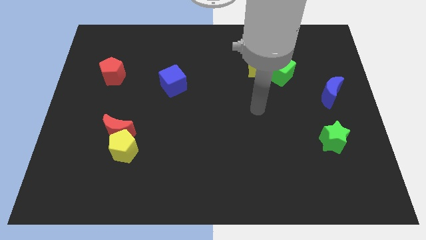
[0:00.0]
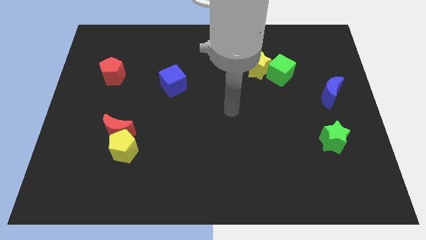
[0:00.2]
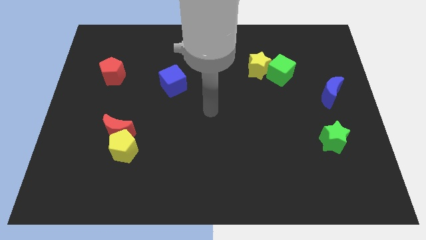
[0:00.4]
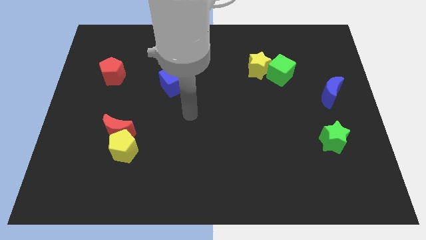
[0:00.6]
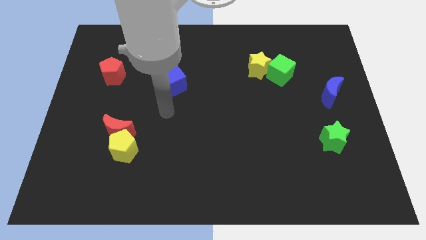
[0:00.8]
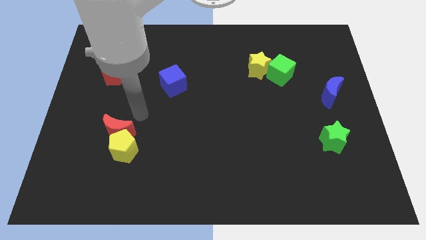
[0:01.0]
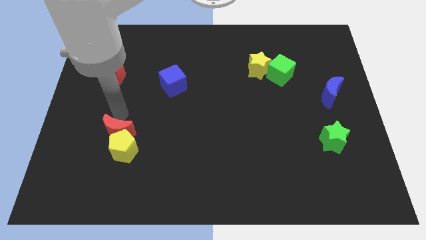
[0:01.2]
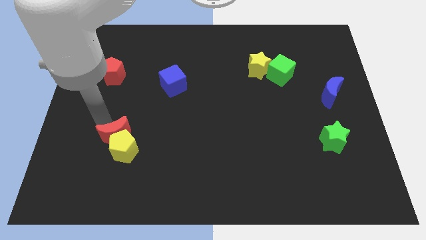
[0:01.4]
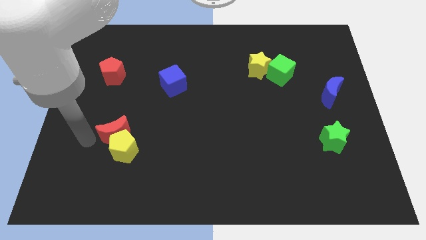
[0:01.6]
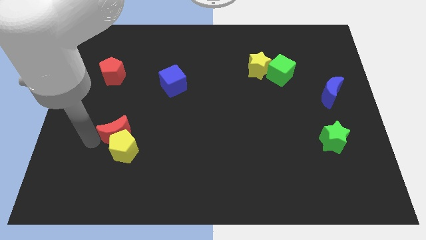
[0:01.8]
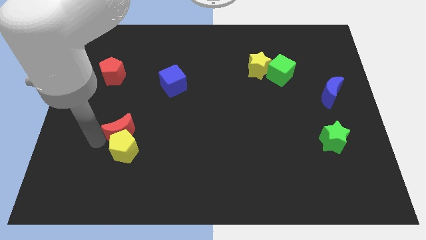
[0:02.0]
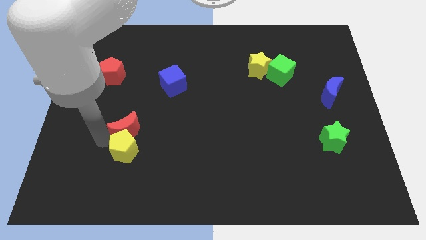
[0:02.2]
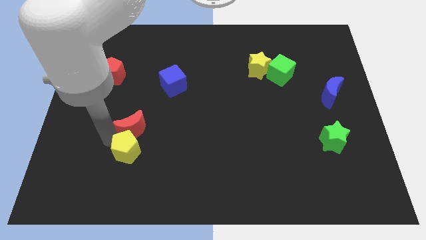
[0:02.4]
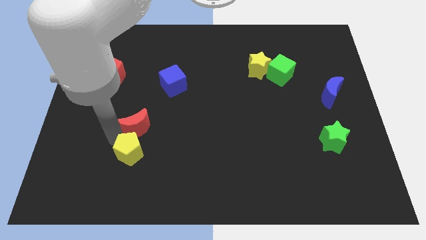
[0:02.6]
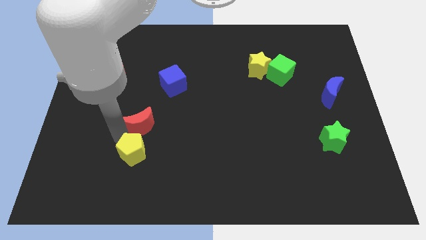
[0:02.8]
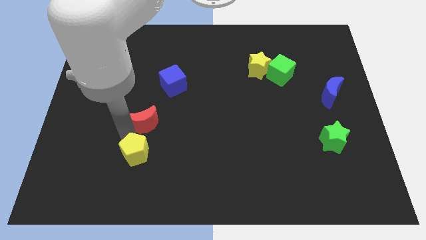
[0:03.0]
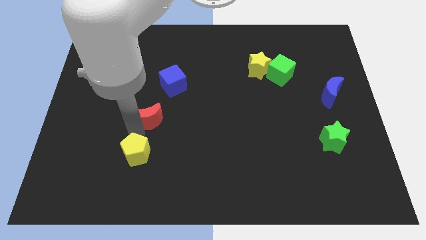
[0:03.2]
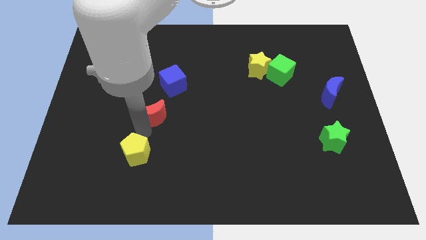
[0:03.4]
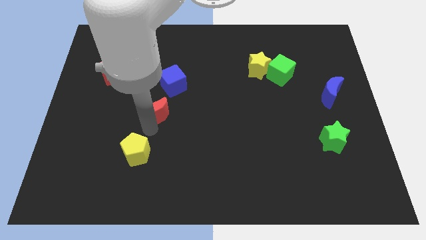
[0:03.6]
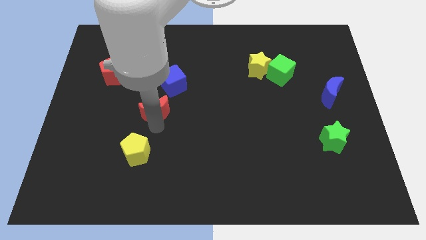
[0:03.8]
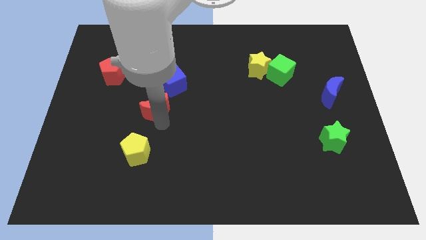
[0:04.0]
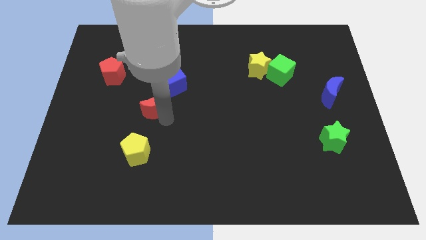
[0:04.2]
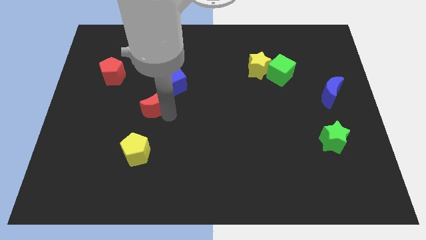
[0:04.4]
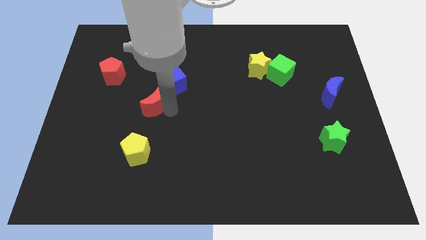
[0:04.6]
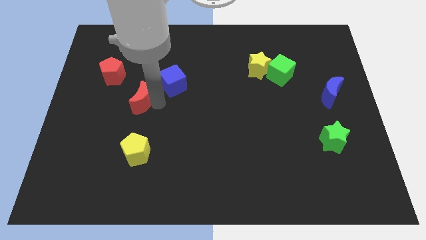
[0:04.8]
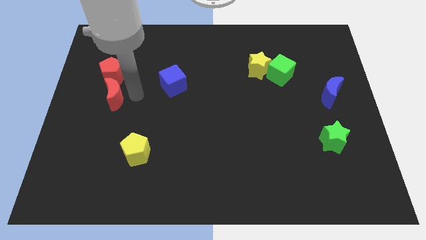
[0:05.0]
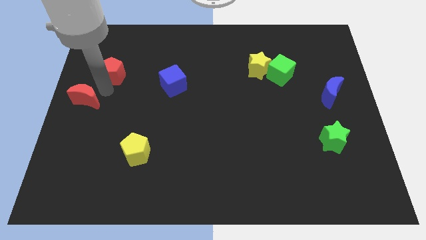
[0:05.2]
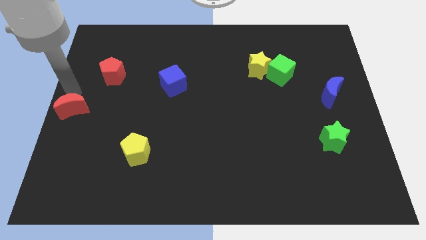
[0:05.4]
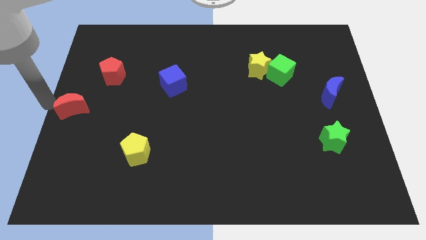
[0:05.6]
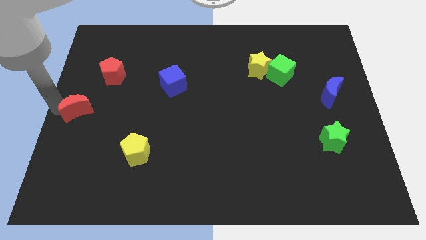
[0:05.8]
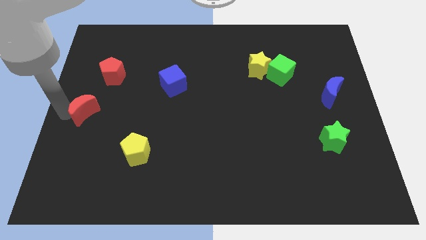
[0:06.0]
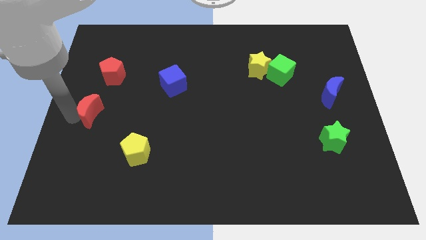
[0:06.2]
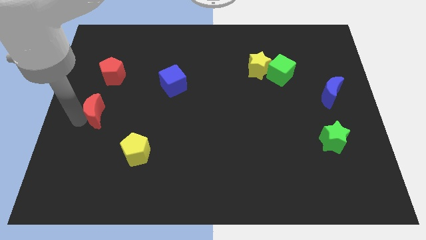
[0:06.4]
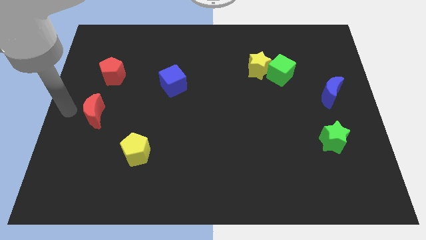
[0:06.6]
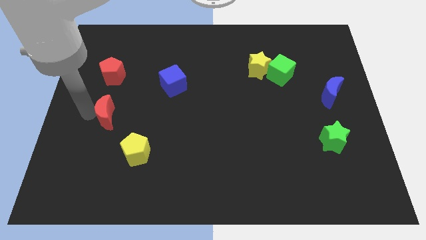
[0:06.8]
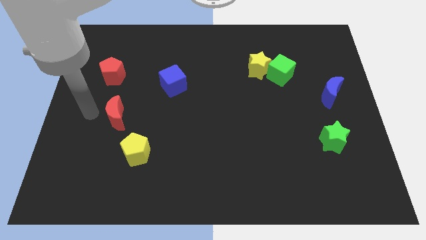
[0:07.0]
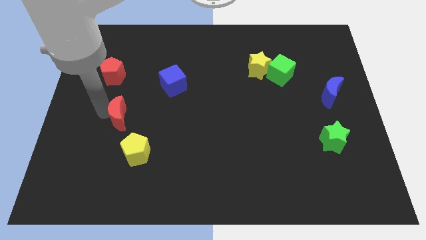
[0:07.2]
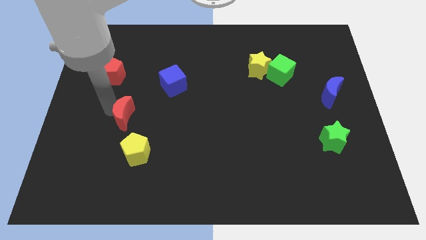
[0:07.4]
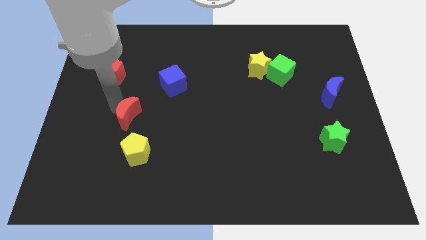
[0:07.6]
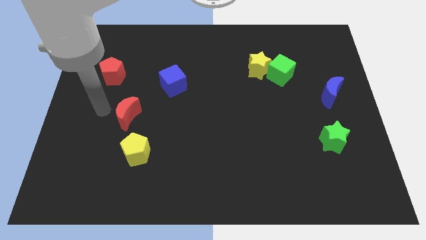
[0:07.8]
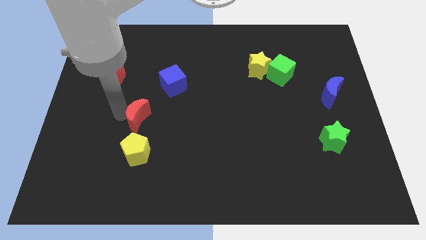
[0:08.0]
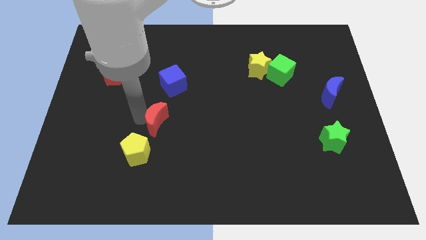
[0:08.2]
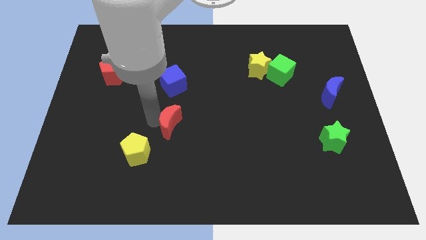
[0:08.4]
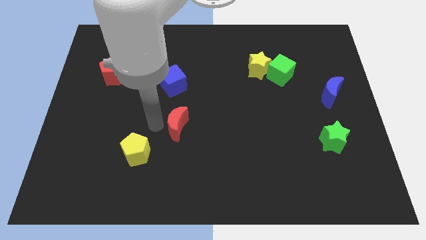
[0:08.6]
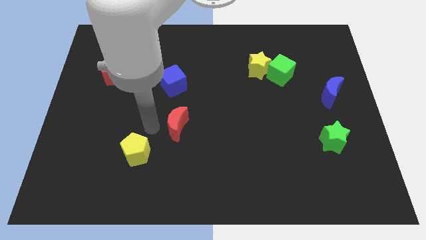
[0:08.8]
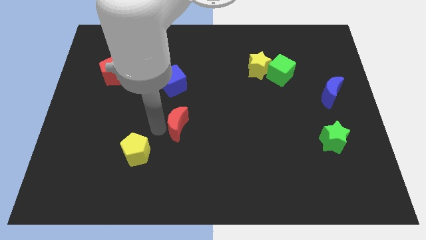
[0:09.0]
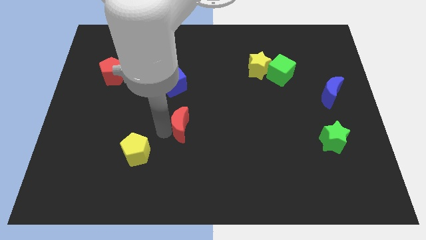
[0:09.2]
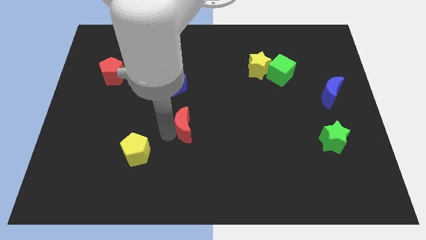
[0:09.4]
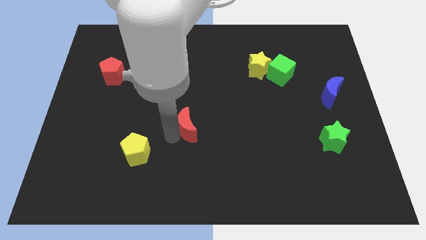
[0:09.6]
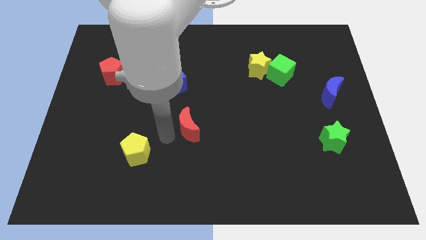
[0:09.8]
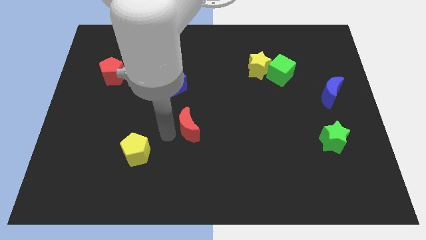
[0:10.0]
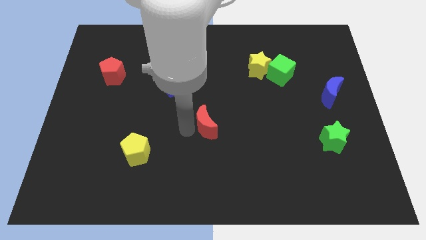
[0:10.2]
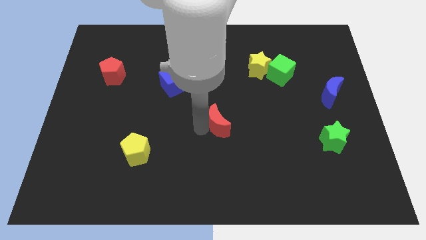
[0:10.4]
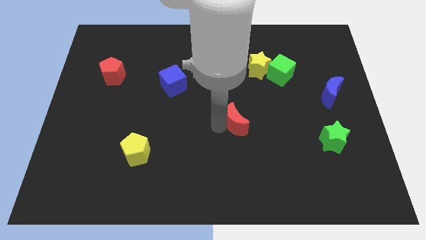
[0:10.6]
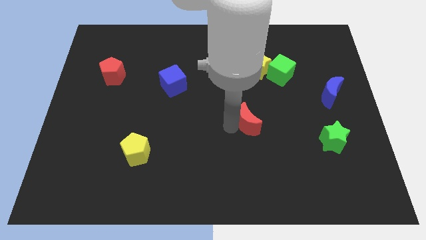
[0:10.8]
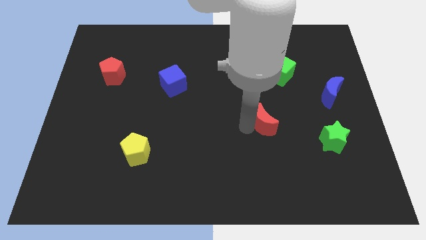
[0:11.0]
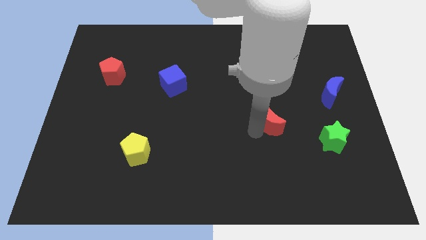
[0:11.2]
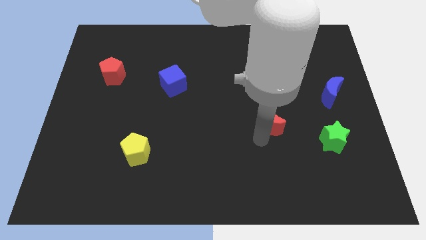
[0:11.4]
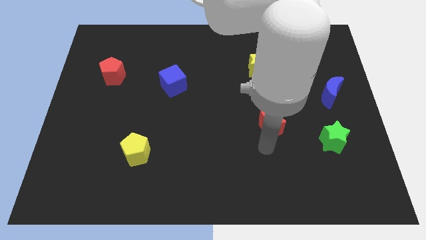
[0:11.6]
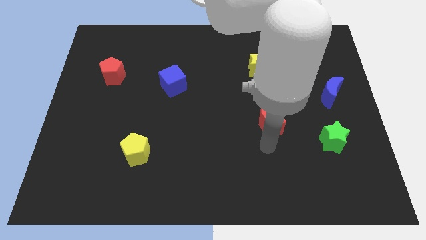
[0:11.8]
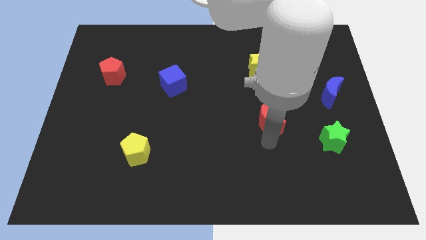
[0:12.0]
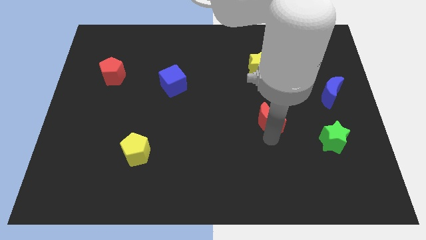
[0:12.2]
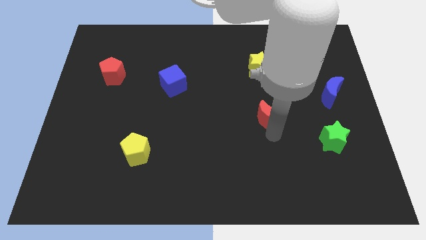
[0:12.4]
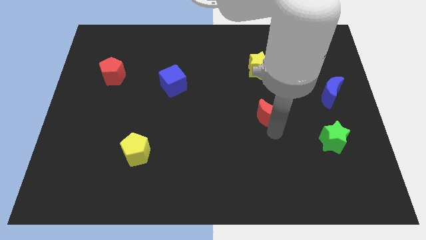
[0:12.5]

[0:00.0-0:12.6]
push the red moon to the bottom side of the green cube

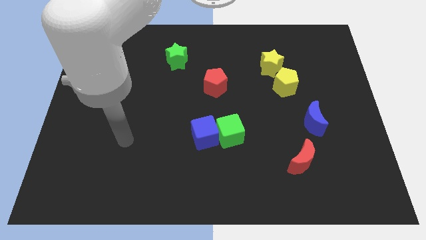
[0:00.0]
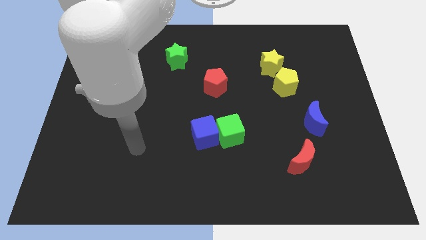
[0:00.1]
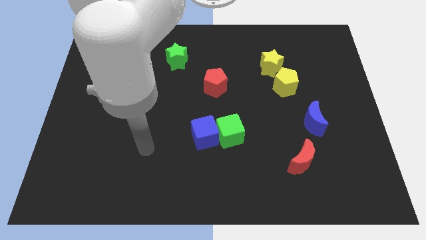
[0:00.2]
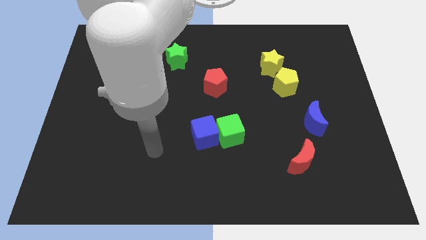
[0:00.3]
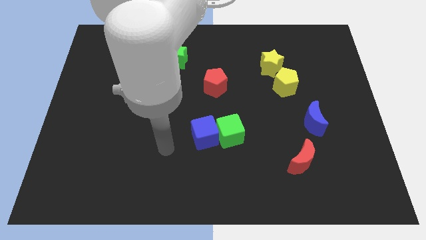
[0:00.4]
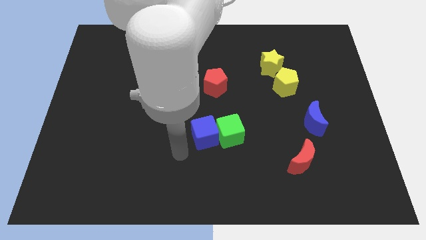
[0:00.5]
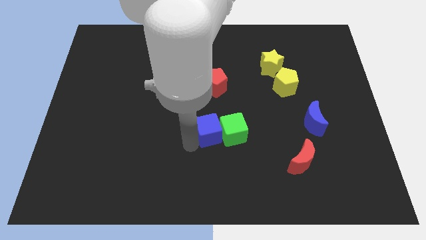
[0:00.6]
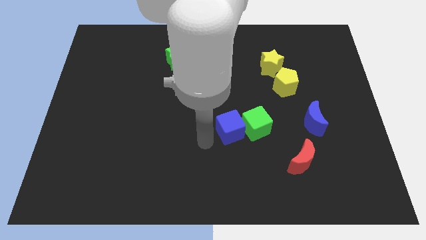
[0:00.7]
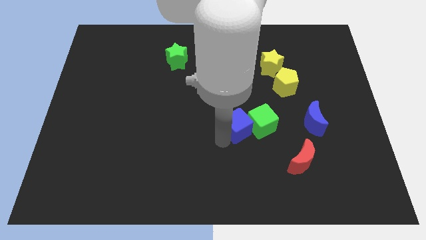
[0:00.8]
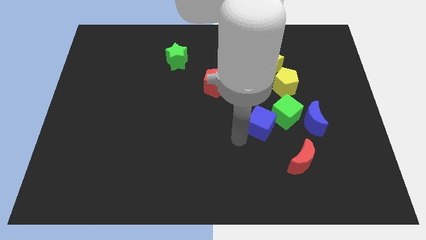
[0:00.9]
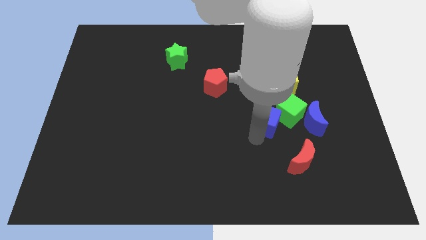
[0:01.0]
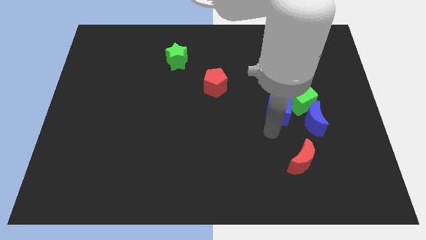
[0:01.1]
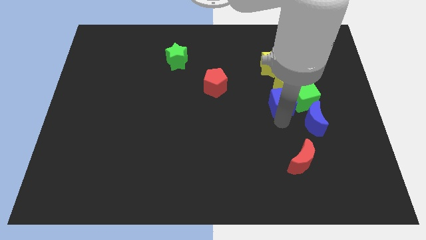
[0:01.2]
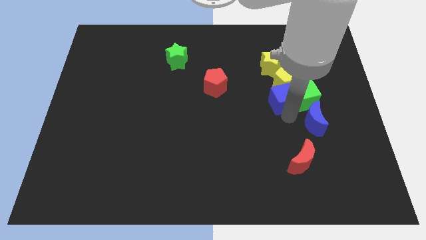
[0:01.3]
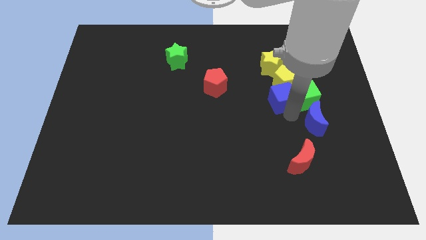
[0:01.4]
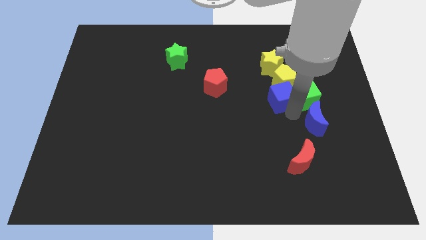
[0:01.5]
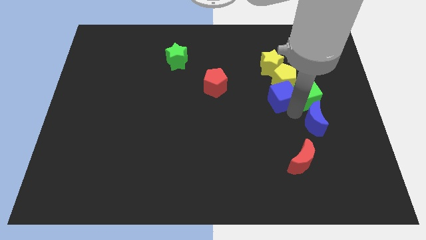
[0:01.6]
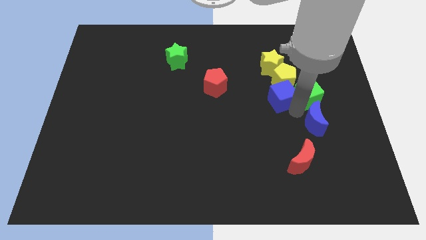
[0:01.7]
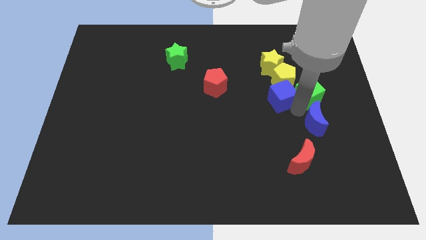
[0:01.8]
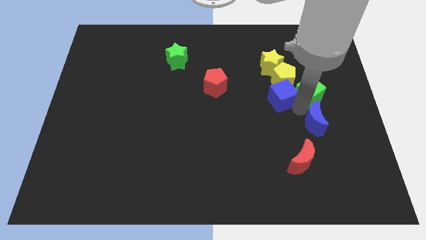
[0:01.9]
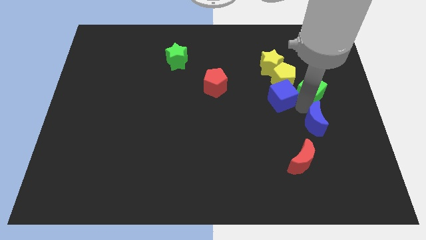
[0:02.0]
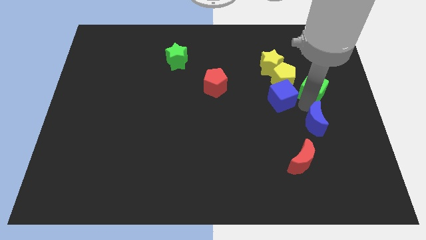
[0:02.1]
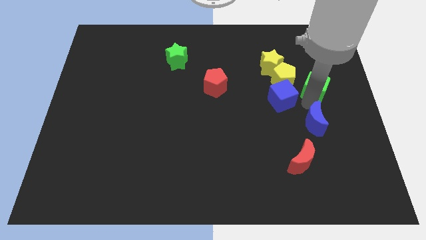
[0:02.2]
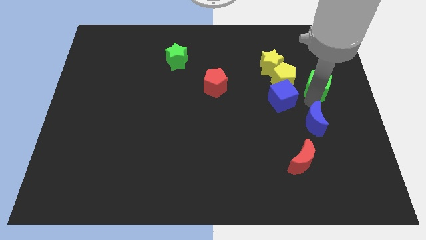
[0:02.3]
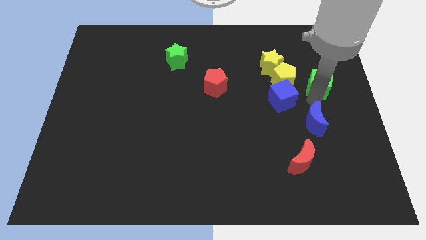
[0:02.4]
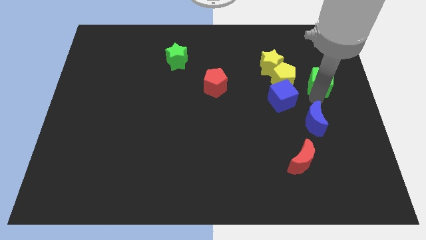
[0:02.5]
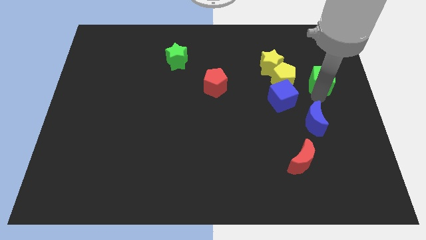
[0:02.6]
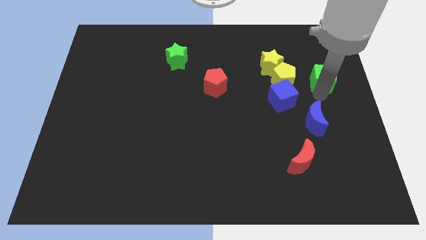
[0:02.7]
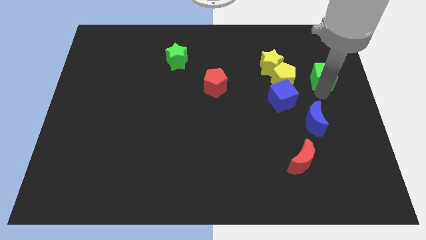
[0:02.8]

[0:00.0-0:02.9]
move the green cube to the right side of the yellow star
